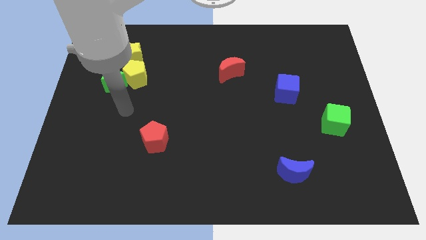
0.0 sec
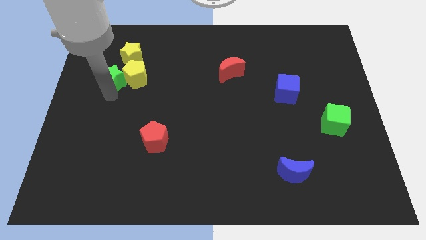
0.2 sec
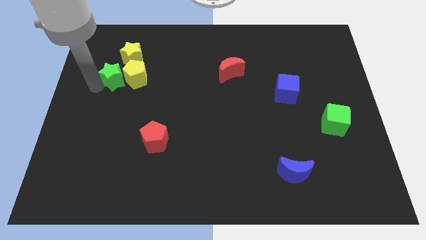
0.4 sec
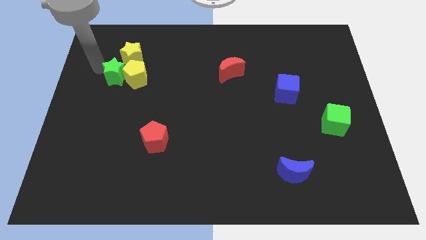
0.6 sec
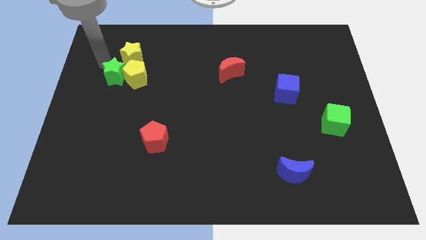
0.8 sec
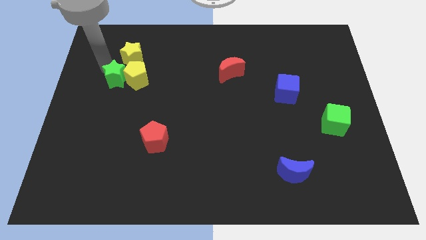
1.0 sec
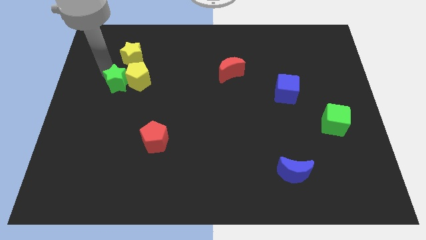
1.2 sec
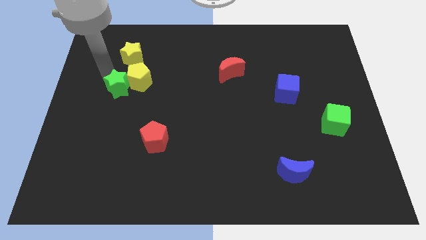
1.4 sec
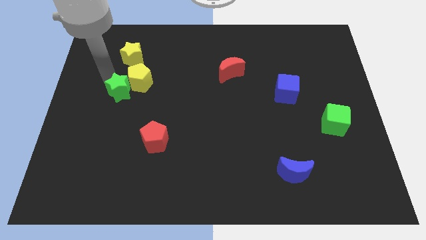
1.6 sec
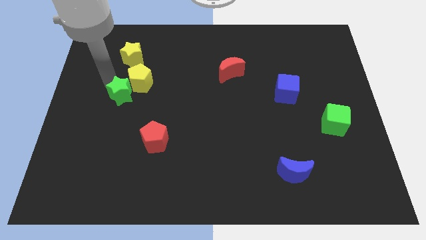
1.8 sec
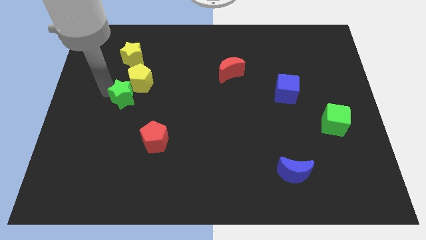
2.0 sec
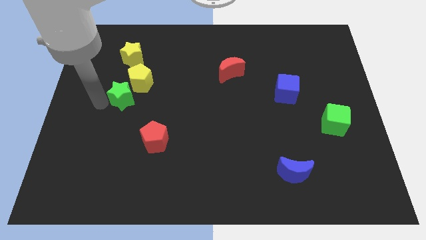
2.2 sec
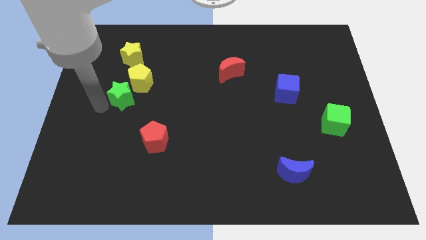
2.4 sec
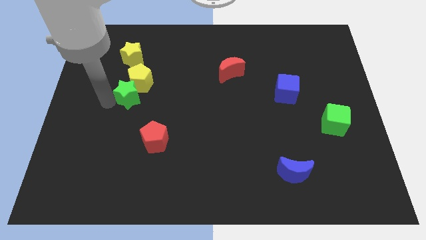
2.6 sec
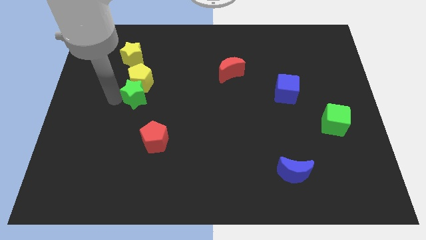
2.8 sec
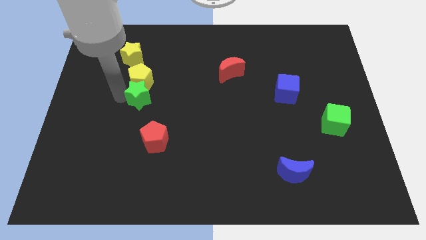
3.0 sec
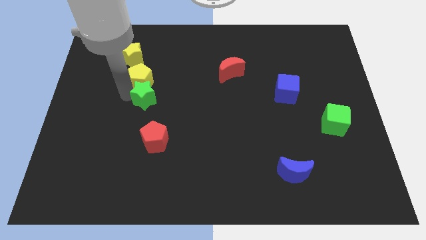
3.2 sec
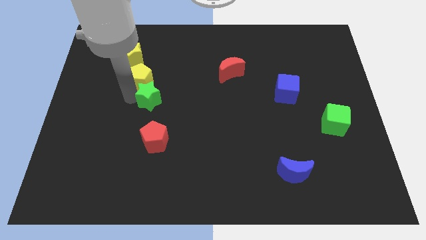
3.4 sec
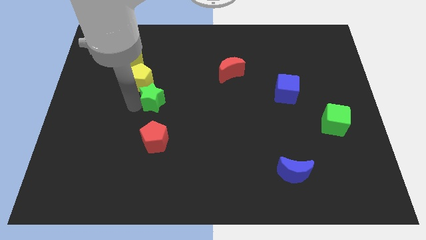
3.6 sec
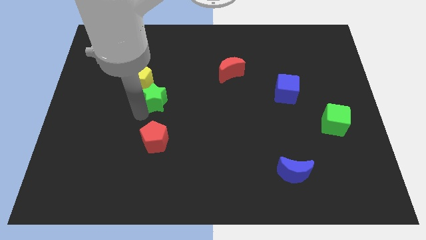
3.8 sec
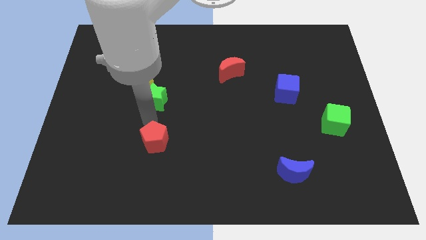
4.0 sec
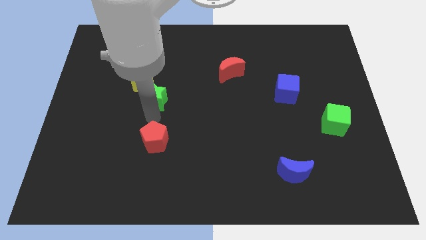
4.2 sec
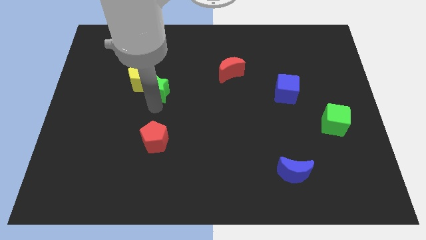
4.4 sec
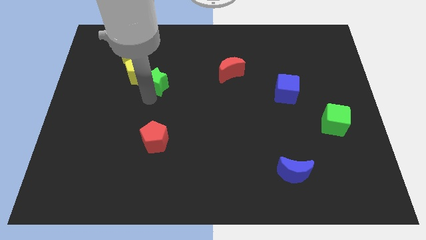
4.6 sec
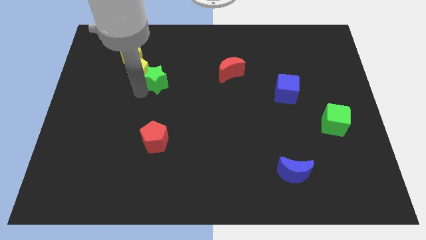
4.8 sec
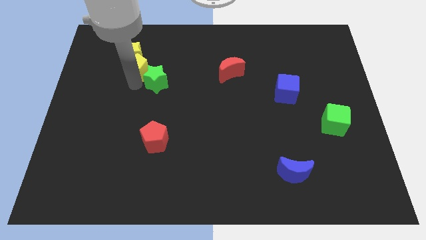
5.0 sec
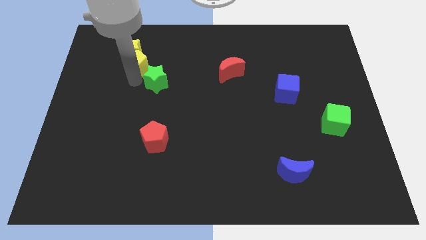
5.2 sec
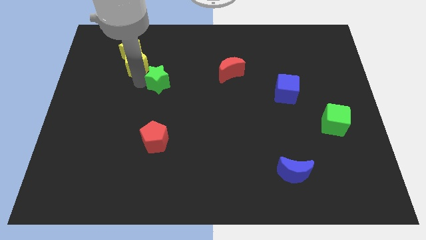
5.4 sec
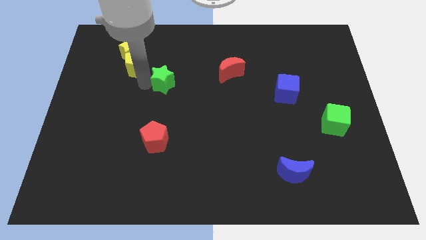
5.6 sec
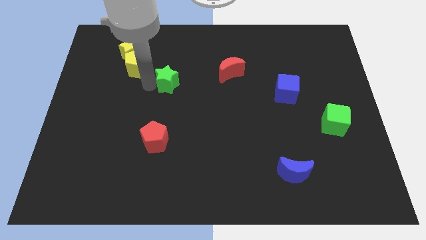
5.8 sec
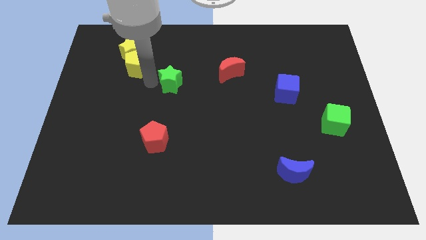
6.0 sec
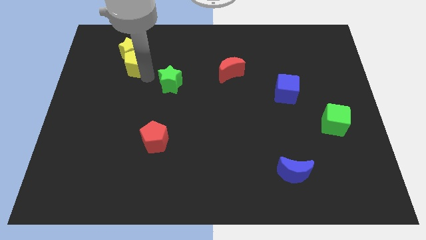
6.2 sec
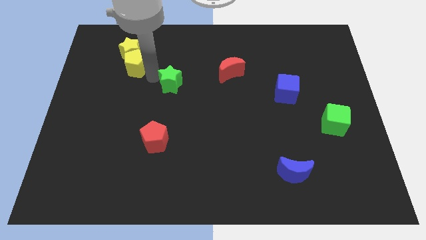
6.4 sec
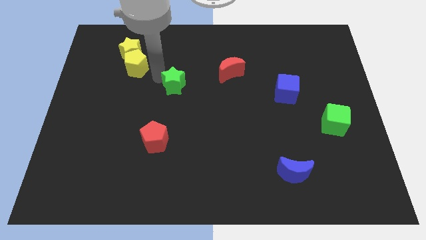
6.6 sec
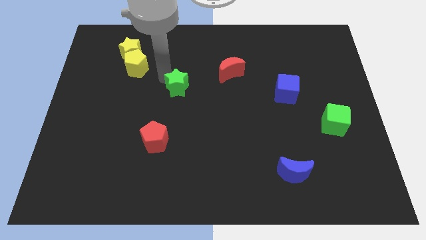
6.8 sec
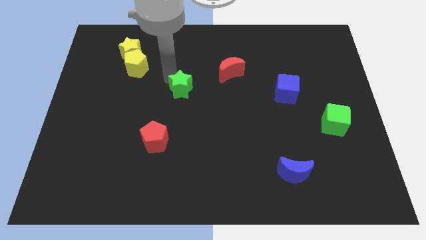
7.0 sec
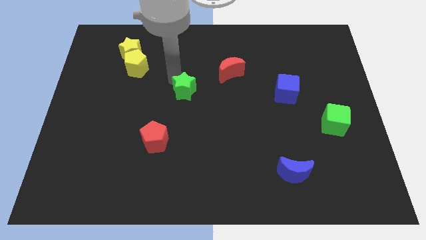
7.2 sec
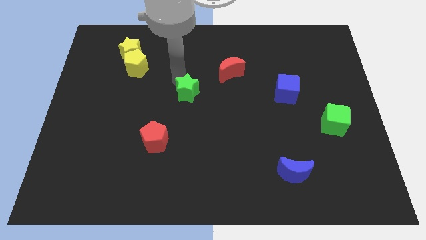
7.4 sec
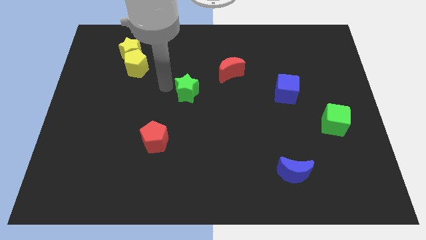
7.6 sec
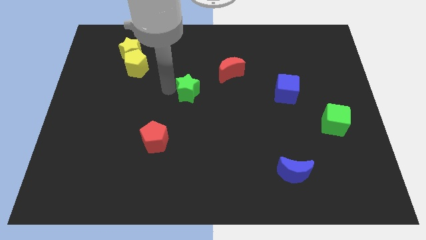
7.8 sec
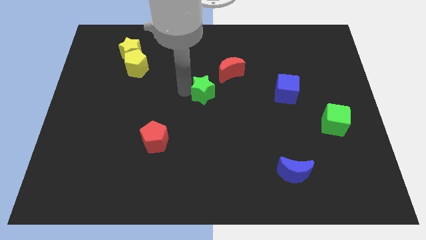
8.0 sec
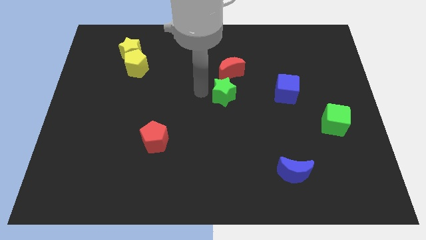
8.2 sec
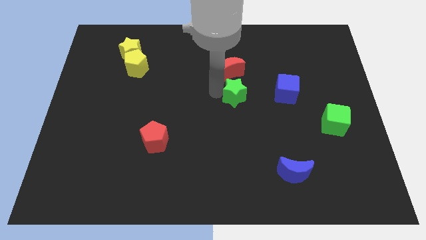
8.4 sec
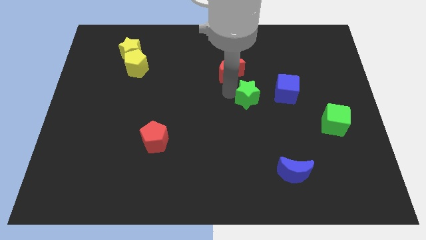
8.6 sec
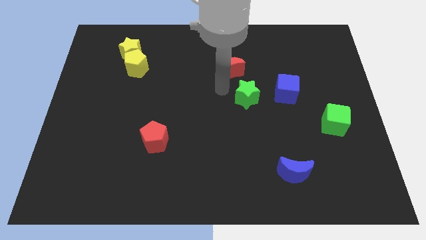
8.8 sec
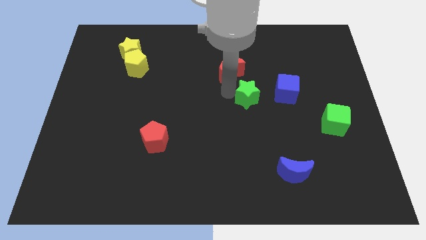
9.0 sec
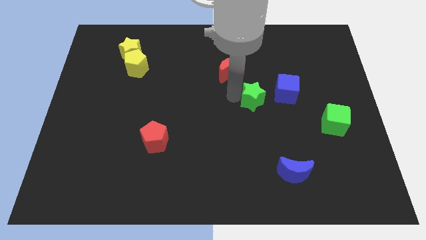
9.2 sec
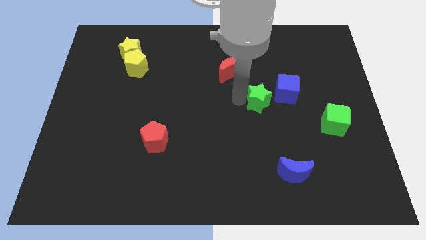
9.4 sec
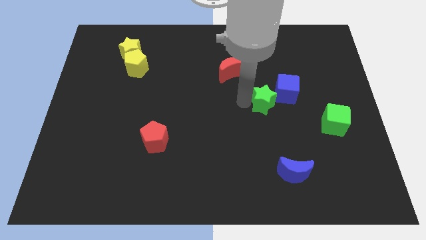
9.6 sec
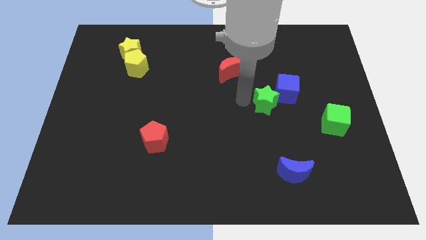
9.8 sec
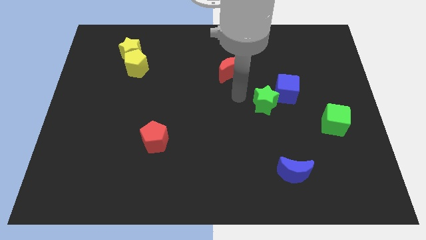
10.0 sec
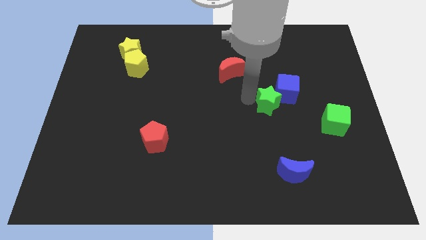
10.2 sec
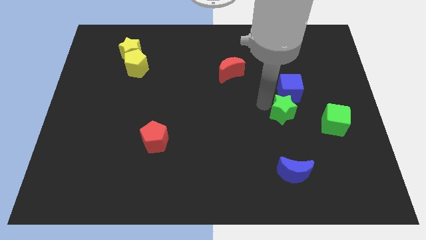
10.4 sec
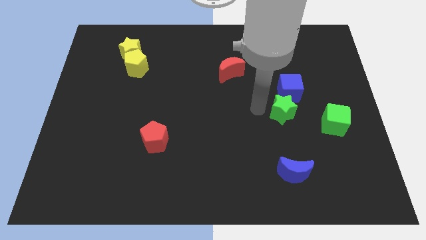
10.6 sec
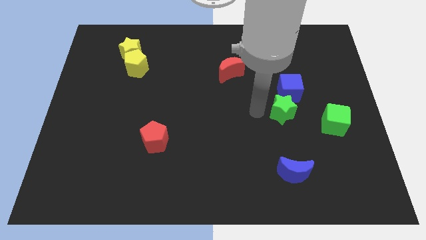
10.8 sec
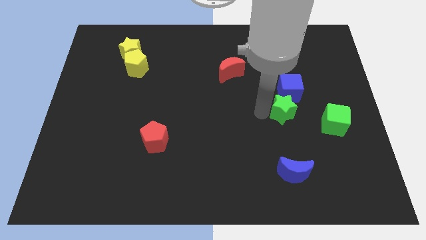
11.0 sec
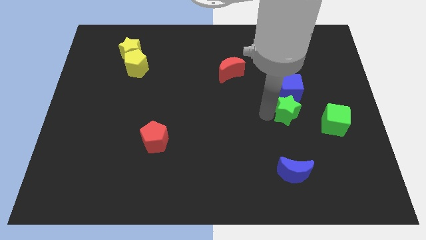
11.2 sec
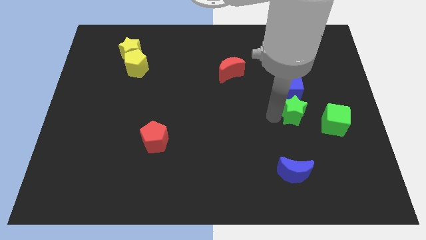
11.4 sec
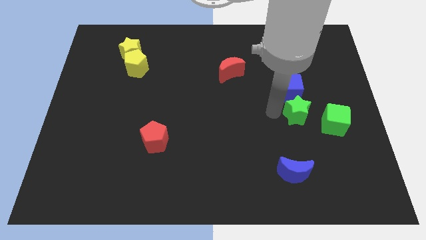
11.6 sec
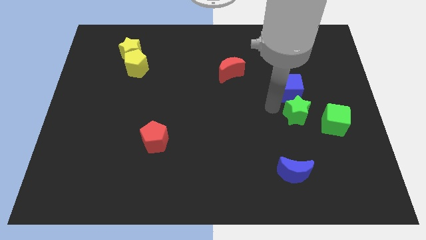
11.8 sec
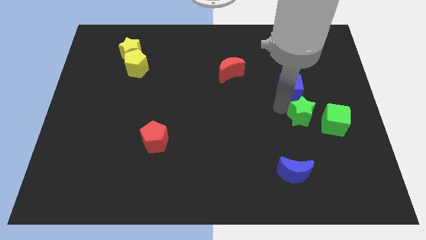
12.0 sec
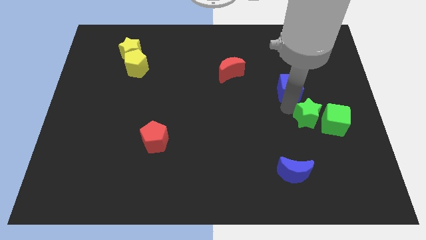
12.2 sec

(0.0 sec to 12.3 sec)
push the green star to the green cube
